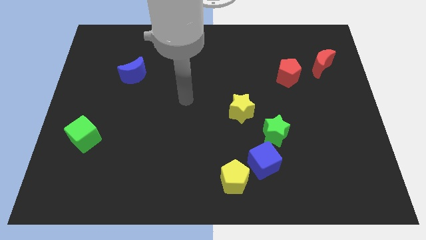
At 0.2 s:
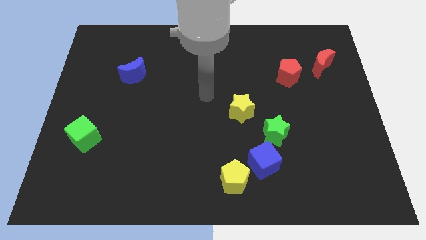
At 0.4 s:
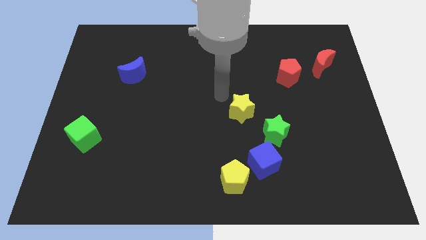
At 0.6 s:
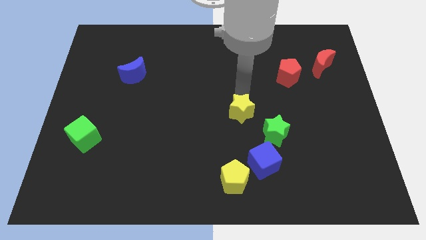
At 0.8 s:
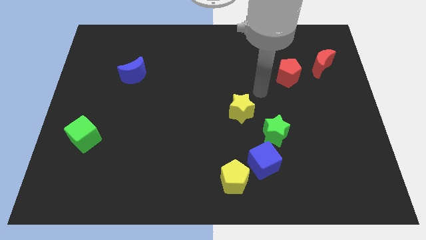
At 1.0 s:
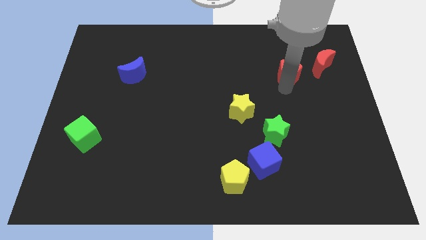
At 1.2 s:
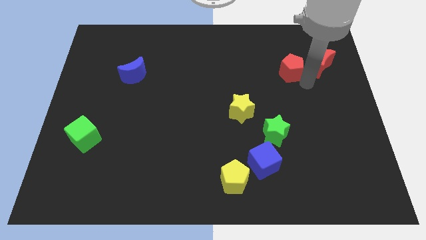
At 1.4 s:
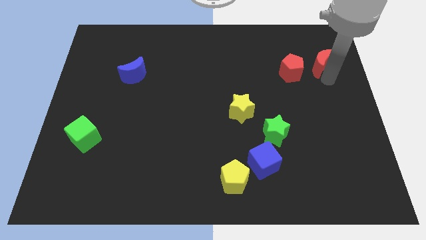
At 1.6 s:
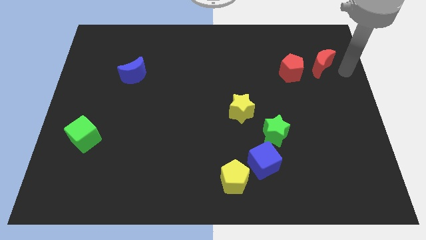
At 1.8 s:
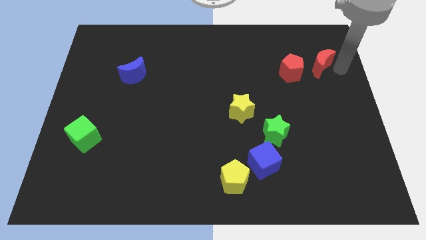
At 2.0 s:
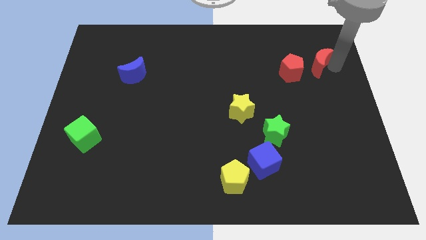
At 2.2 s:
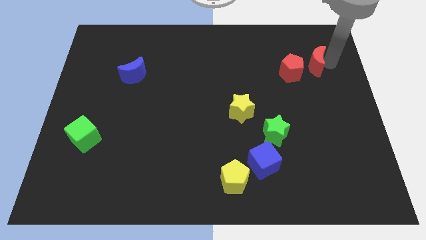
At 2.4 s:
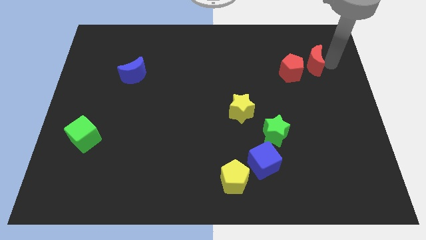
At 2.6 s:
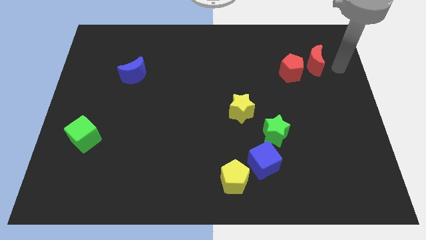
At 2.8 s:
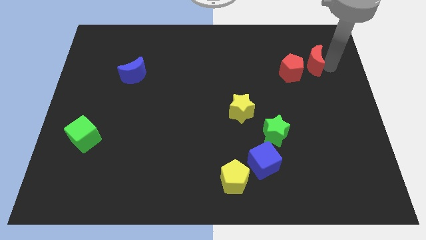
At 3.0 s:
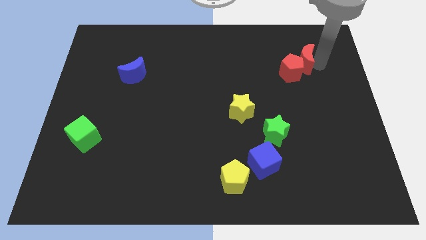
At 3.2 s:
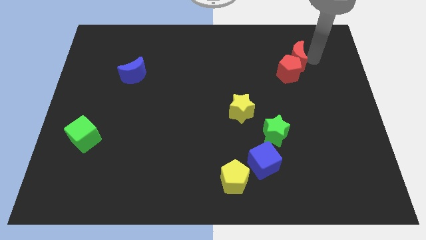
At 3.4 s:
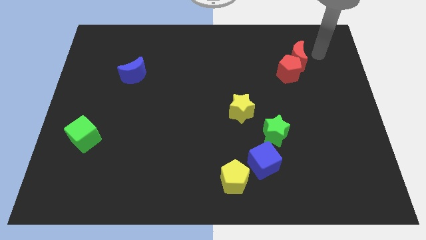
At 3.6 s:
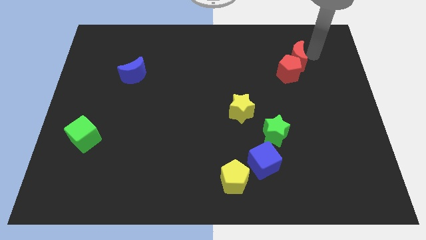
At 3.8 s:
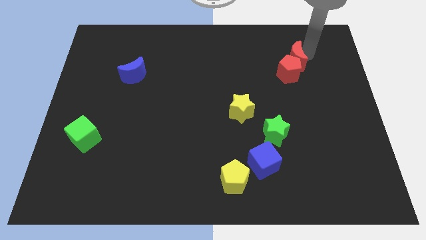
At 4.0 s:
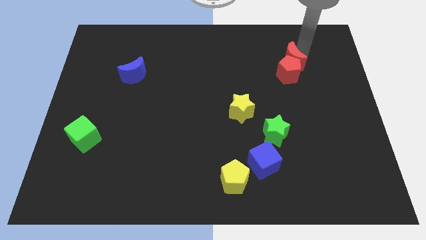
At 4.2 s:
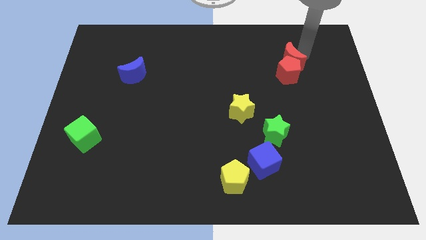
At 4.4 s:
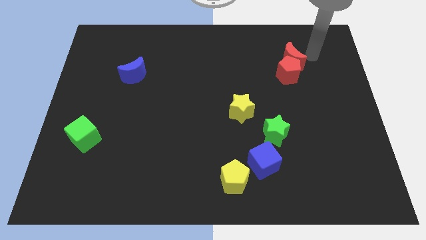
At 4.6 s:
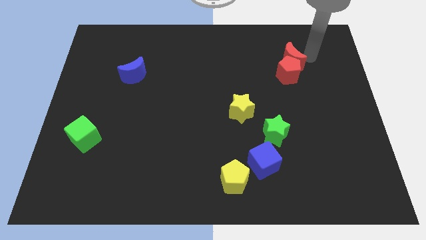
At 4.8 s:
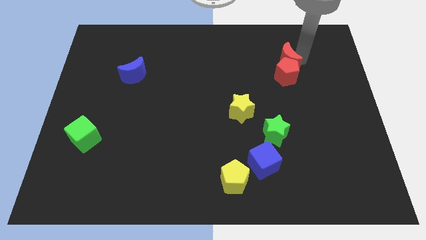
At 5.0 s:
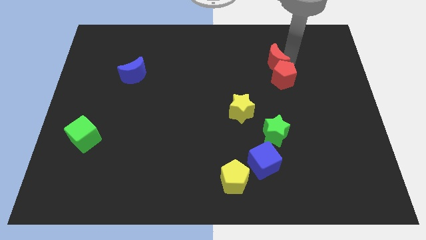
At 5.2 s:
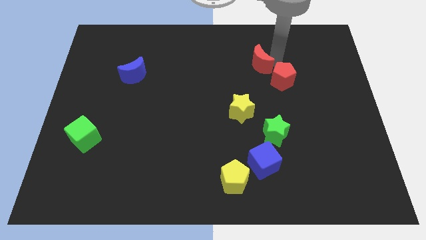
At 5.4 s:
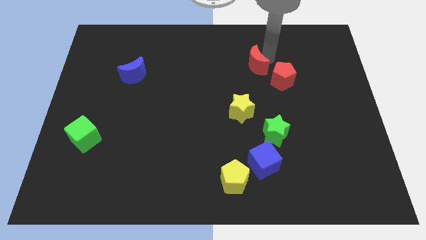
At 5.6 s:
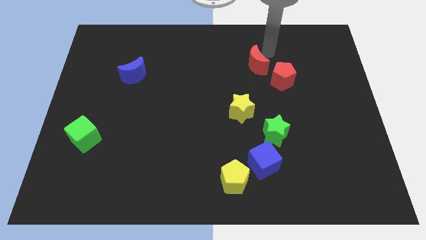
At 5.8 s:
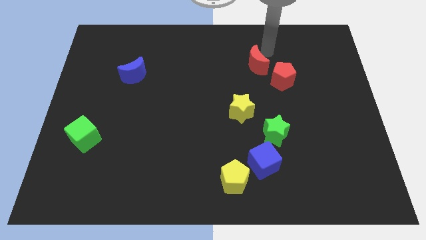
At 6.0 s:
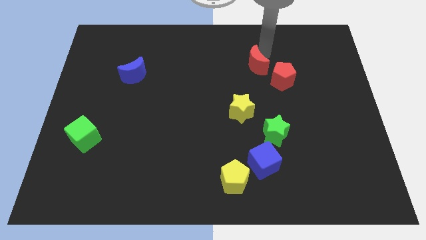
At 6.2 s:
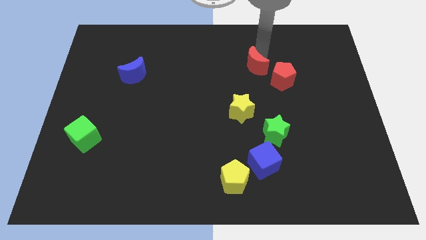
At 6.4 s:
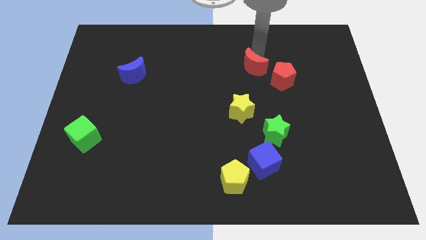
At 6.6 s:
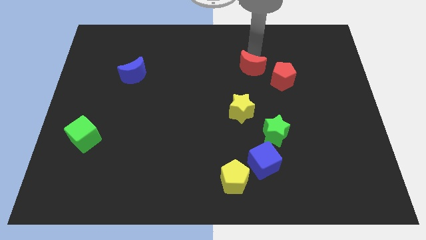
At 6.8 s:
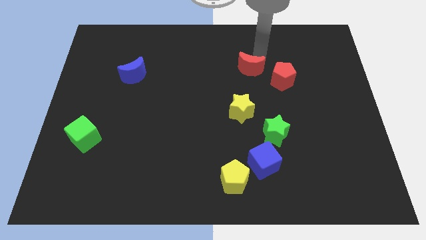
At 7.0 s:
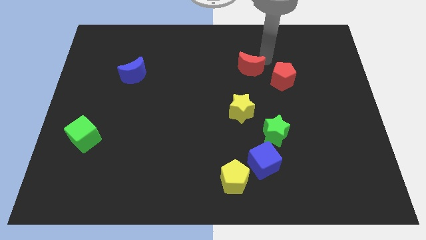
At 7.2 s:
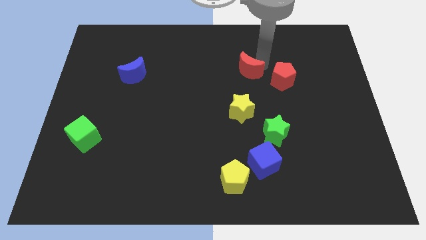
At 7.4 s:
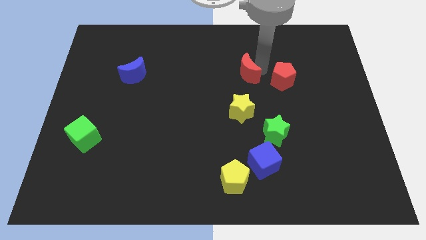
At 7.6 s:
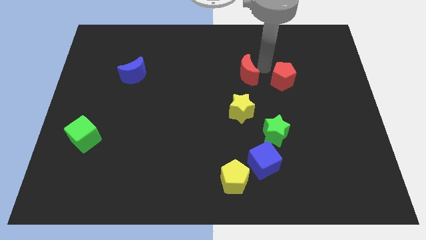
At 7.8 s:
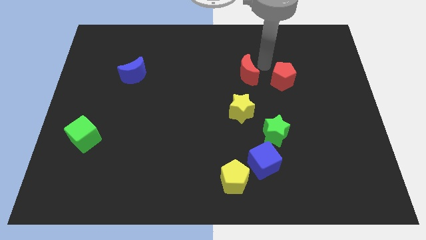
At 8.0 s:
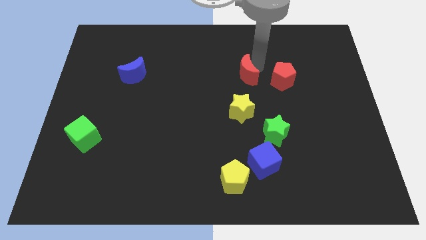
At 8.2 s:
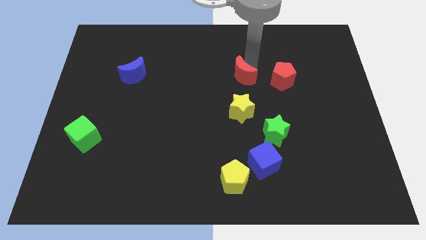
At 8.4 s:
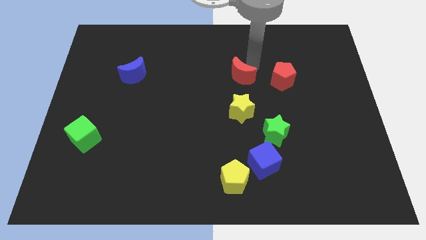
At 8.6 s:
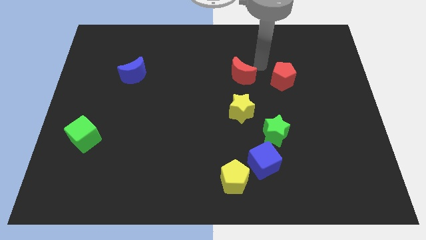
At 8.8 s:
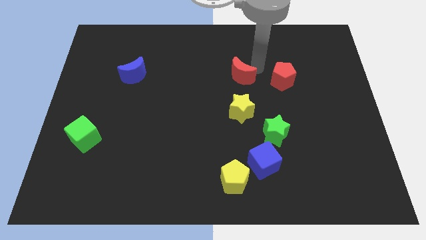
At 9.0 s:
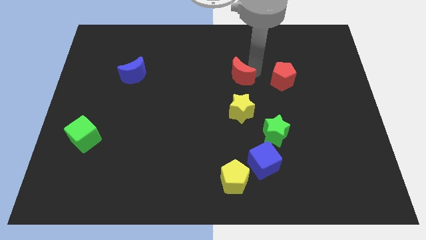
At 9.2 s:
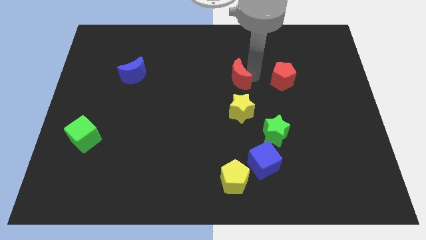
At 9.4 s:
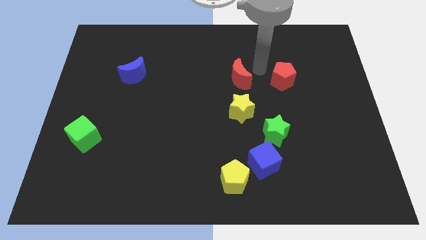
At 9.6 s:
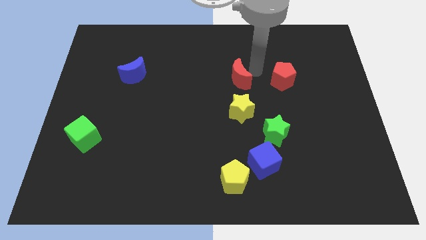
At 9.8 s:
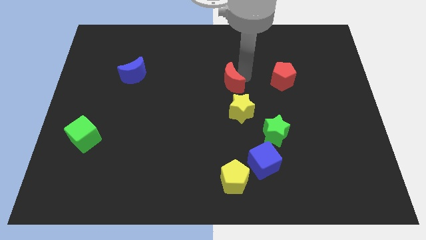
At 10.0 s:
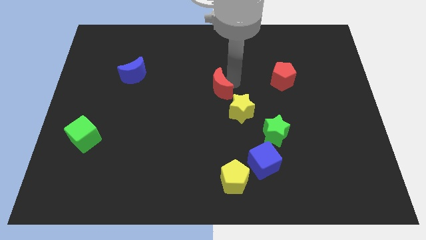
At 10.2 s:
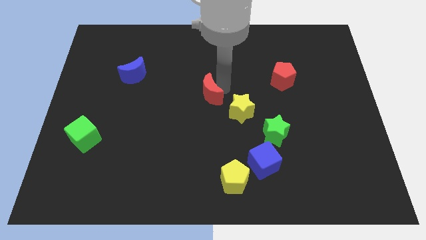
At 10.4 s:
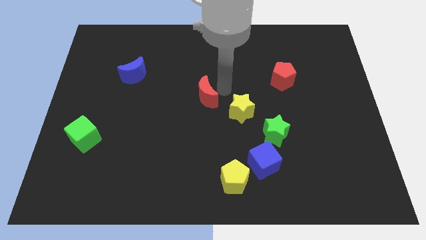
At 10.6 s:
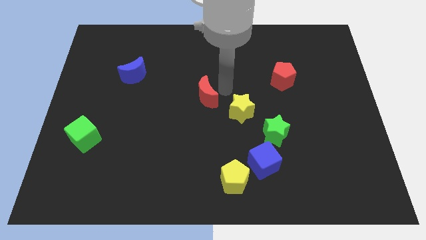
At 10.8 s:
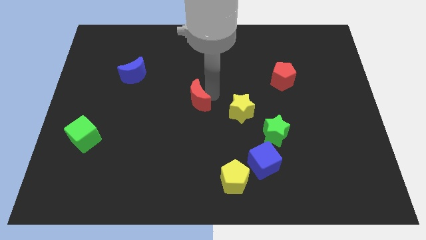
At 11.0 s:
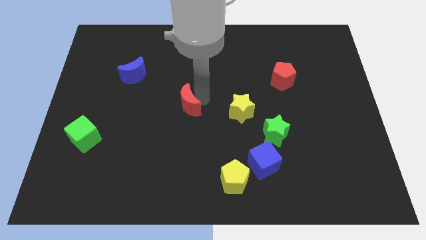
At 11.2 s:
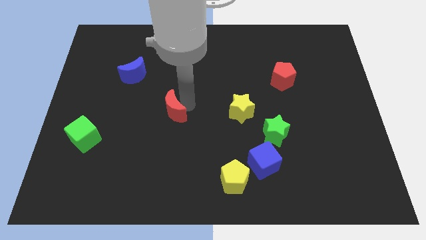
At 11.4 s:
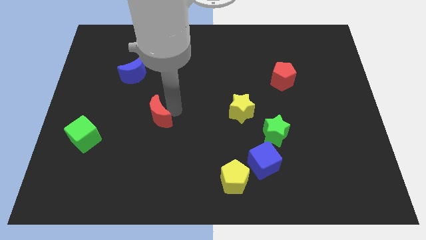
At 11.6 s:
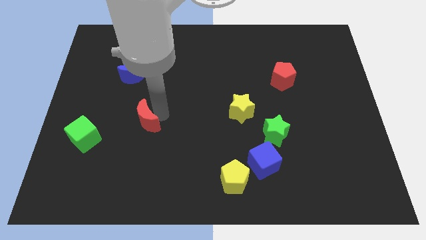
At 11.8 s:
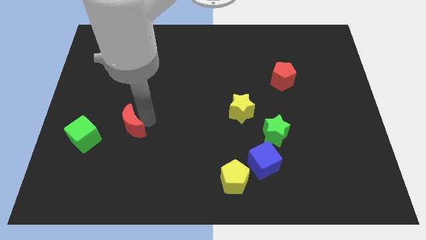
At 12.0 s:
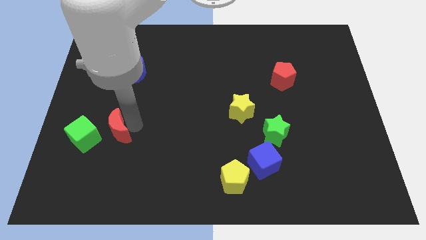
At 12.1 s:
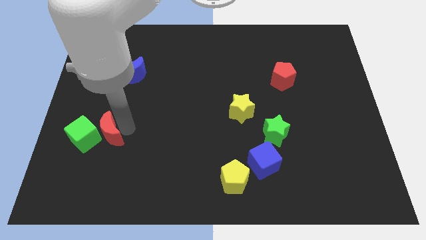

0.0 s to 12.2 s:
slide the red moon towards the green cube
